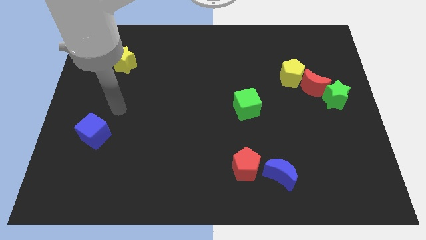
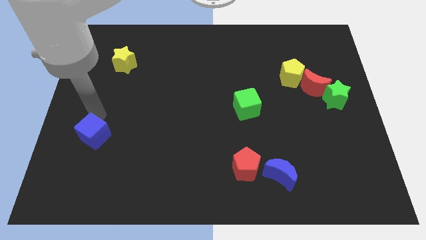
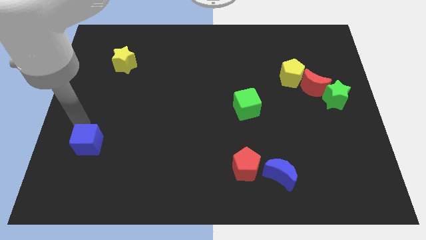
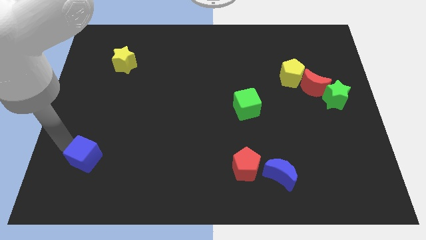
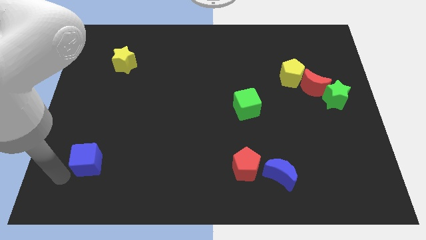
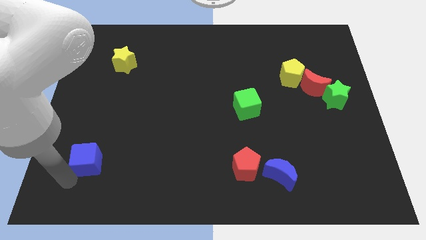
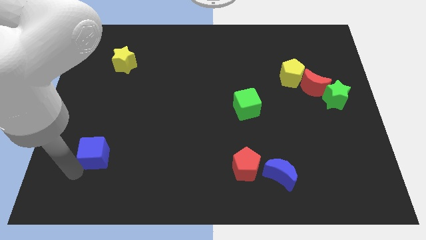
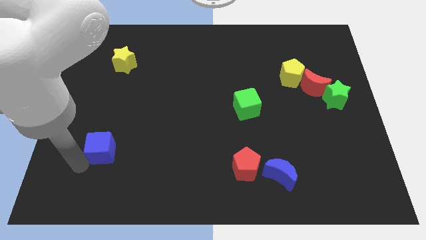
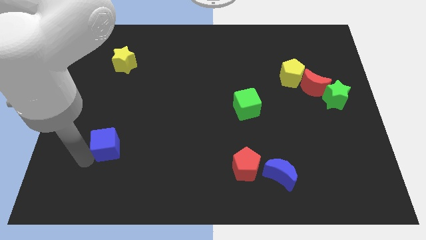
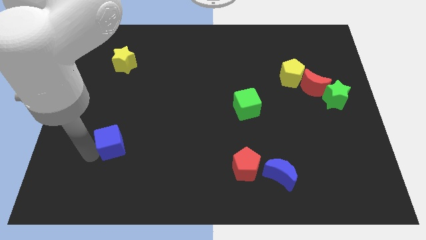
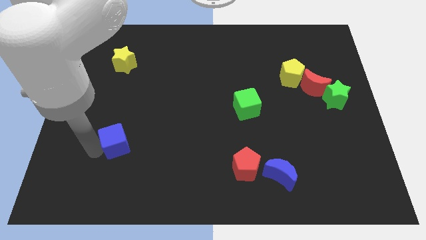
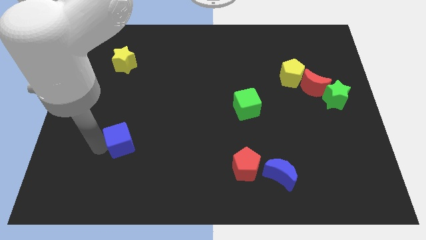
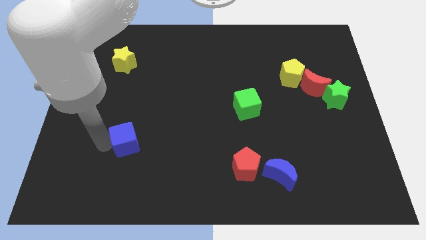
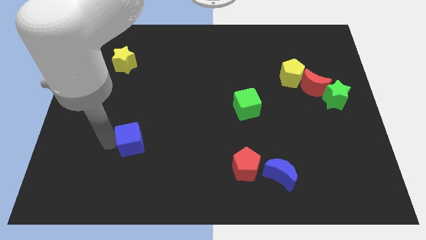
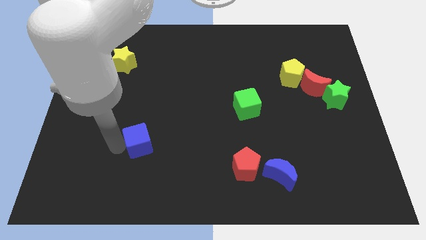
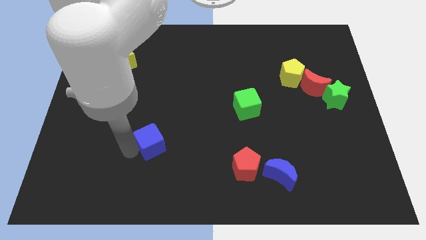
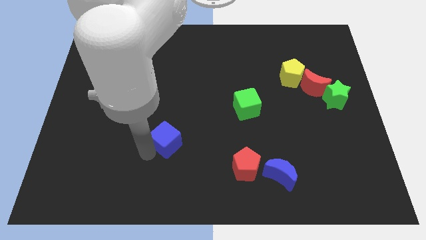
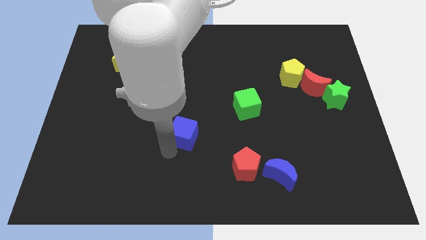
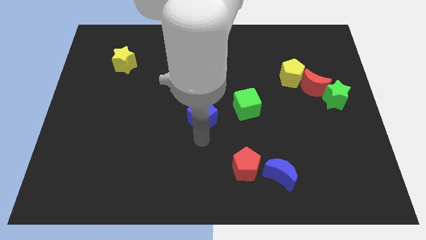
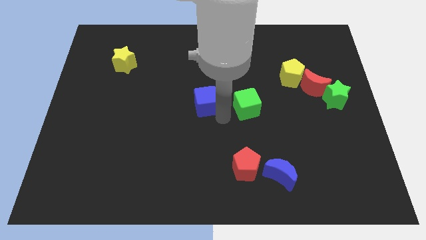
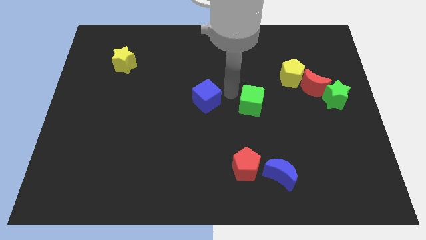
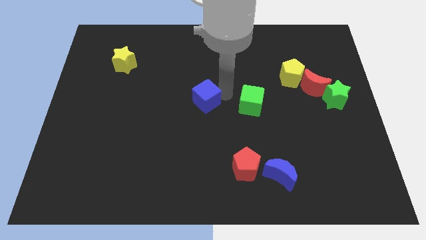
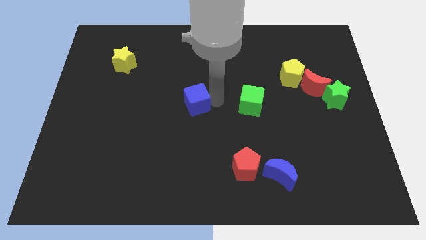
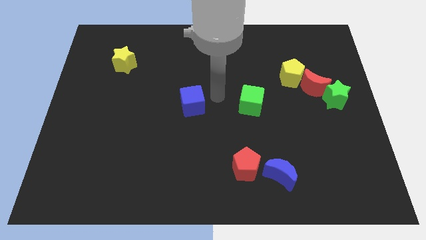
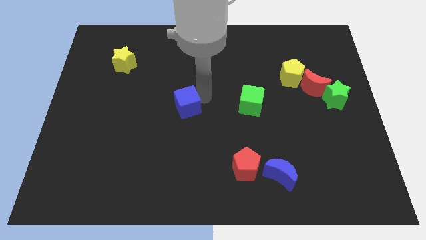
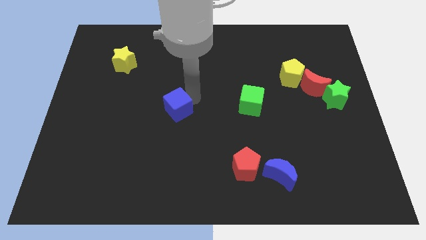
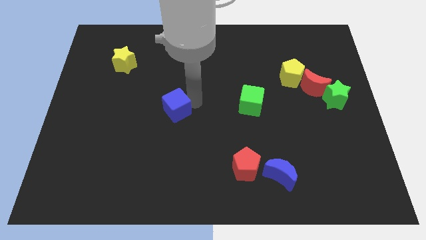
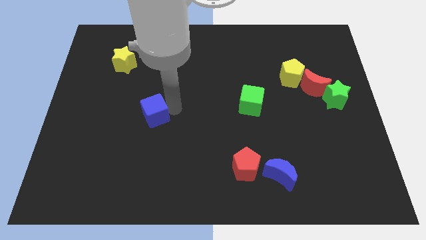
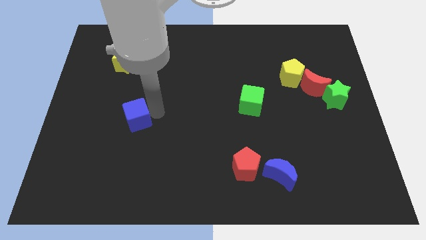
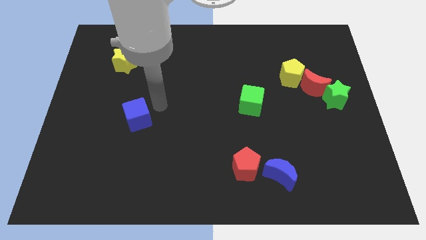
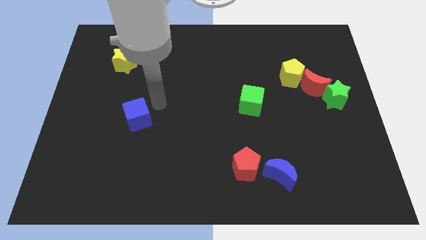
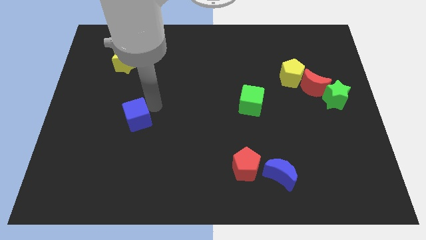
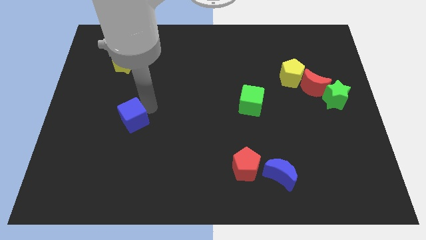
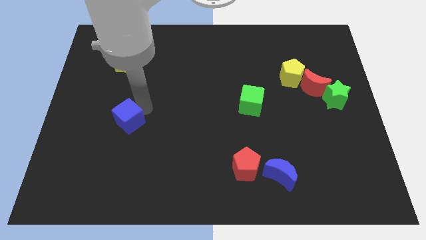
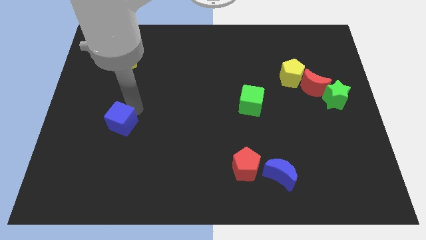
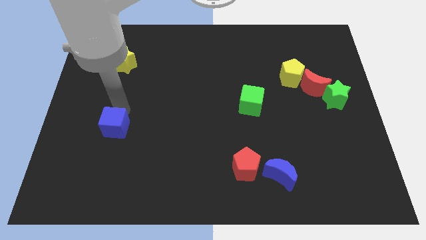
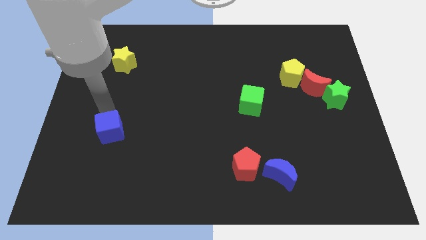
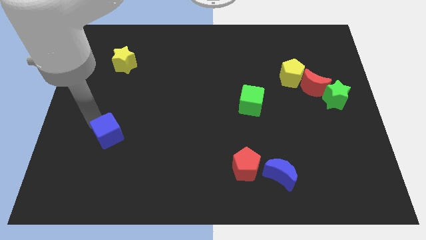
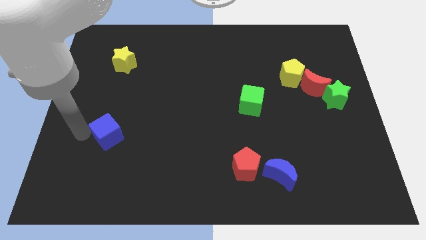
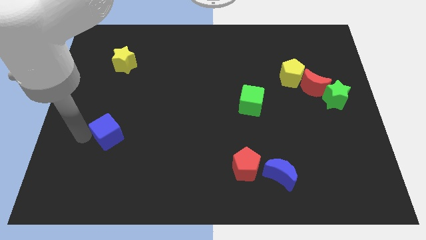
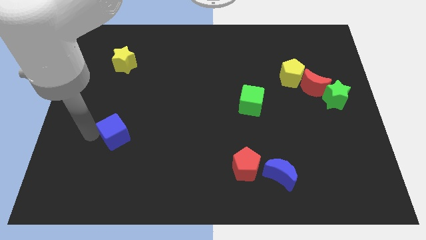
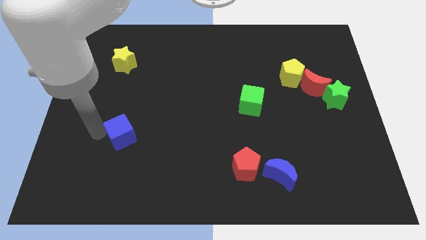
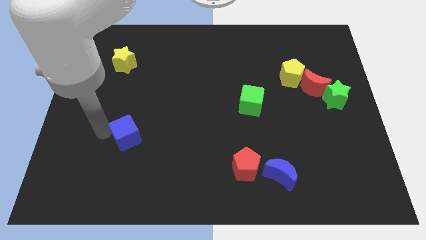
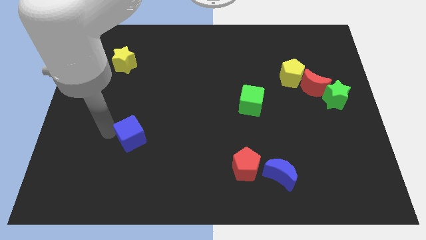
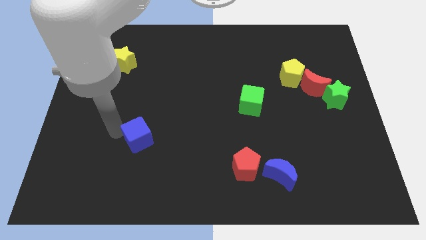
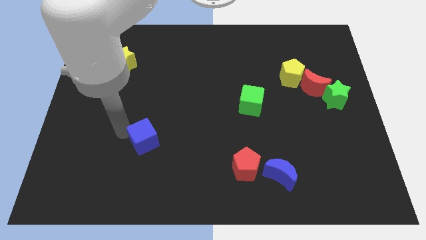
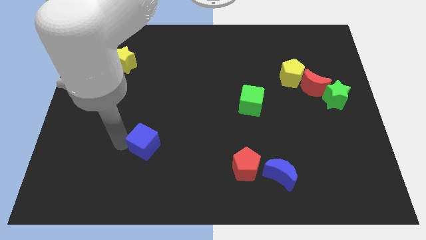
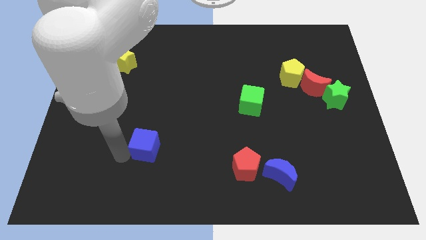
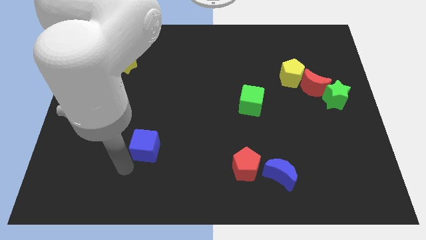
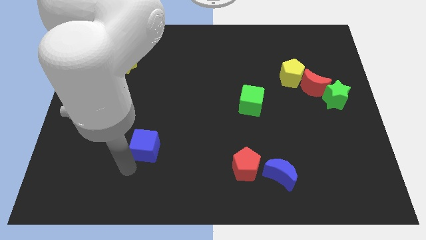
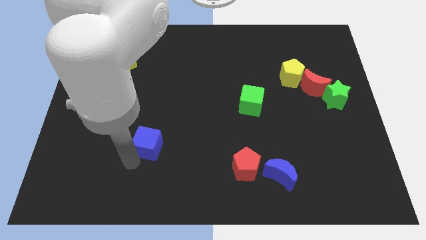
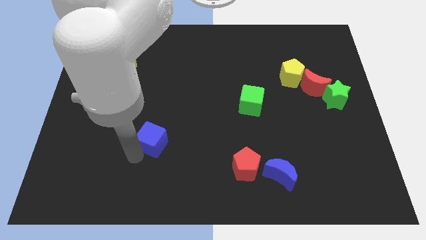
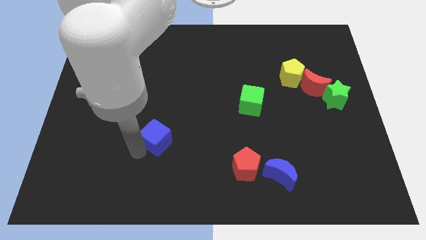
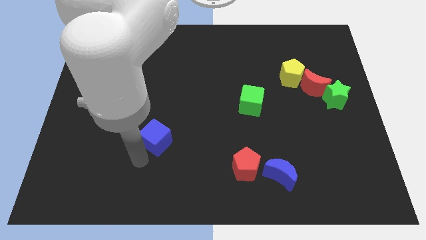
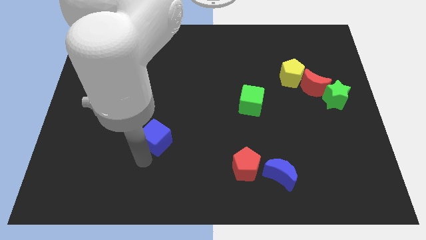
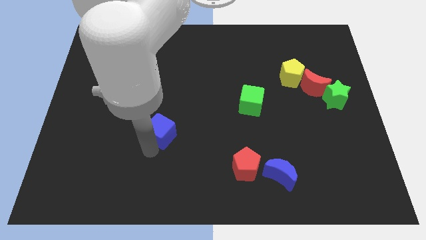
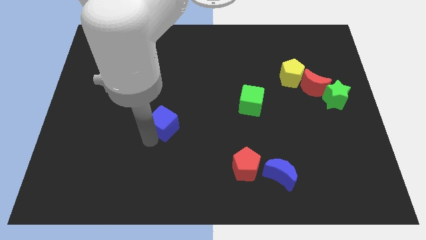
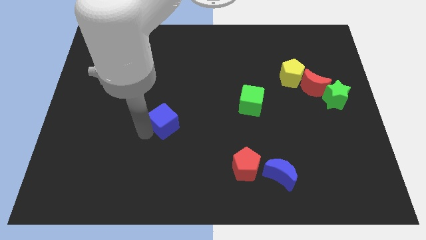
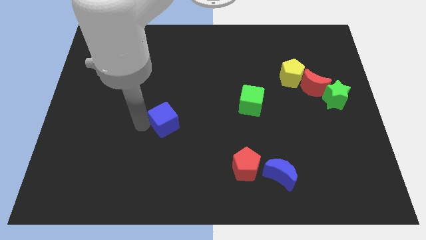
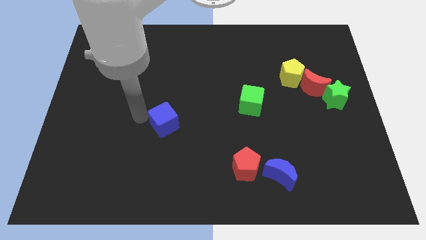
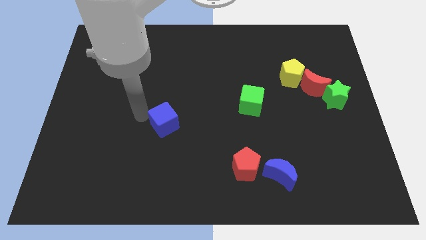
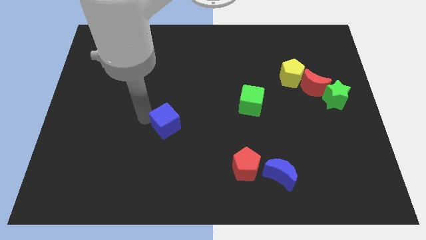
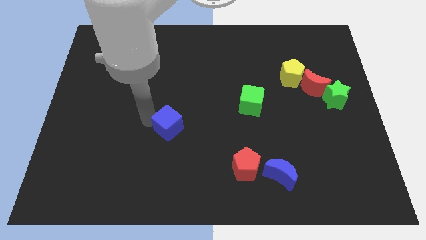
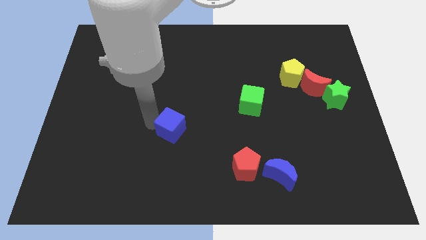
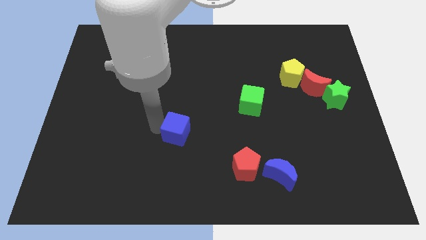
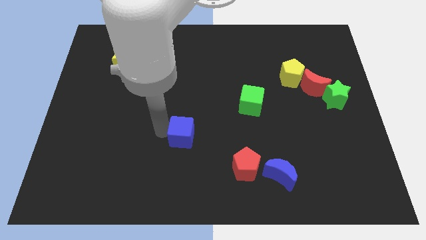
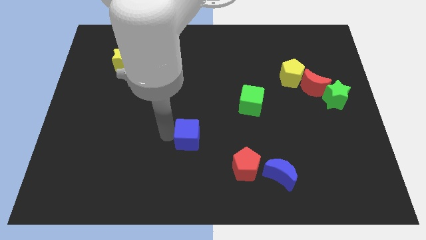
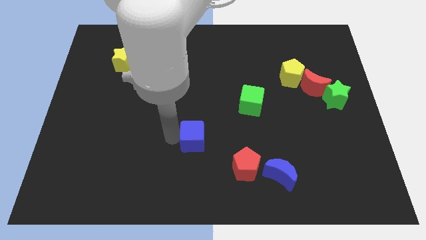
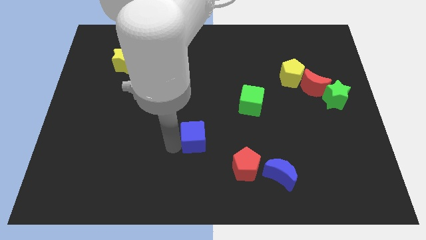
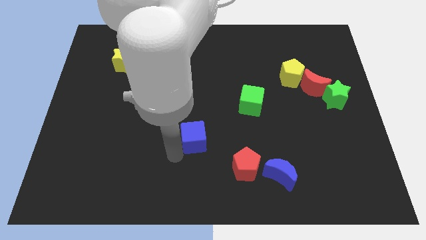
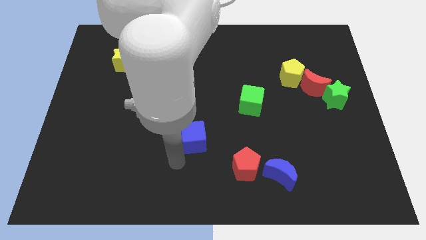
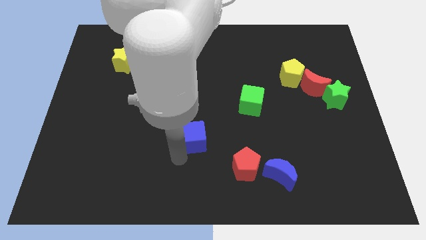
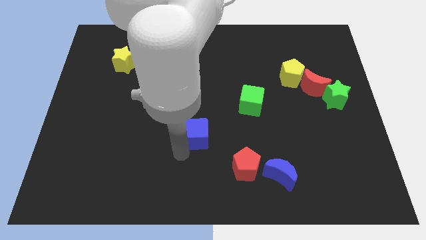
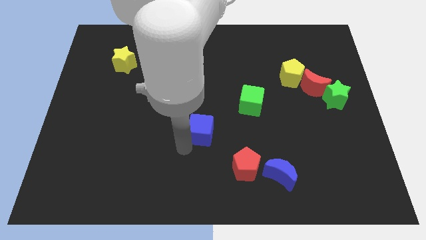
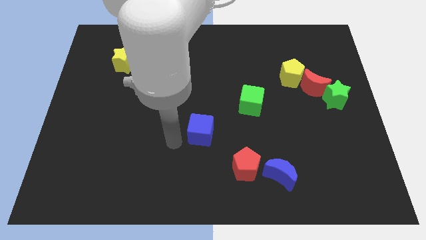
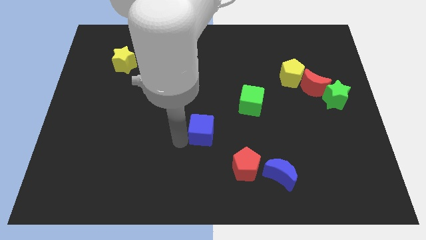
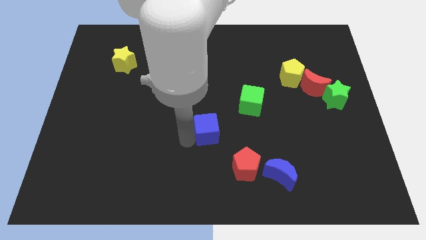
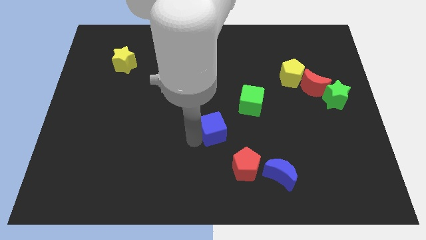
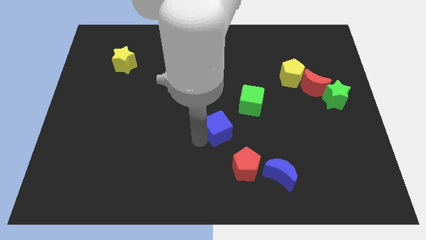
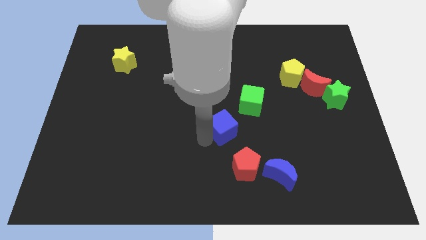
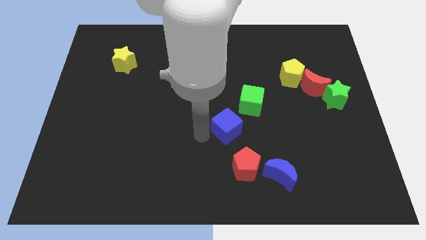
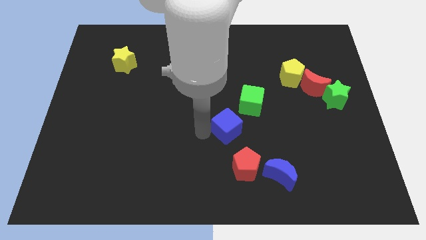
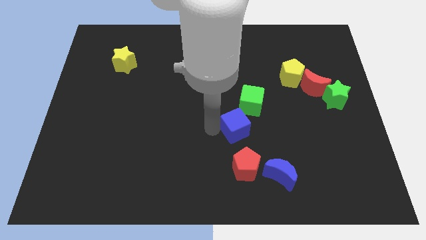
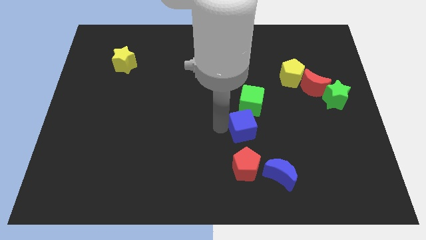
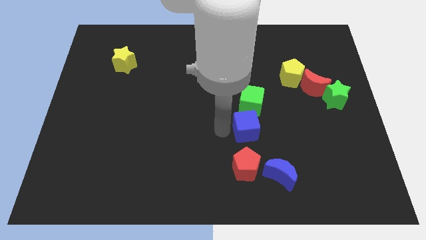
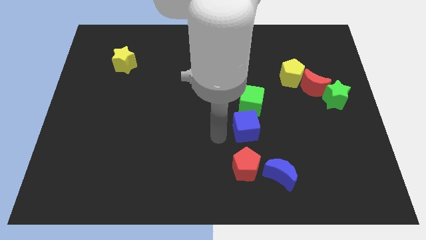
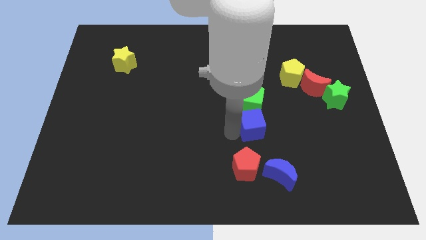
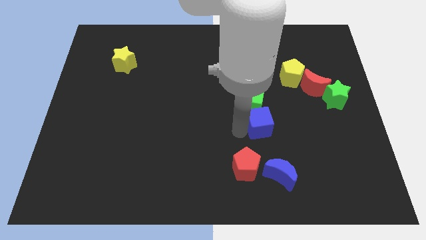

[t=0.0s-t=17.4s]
slide the blue cube to the bottom right of the green cube
